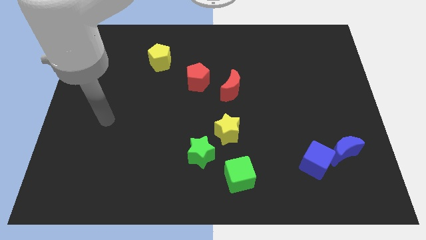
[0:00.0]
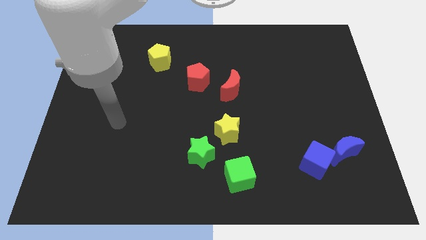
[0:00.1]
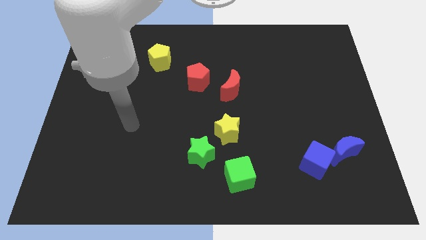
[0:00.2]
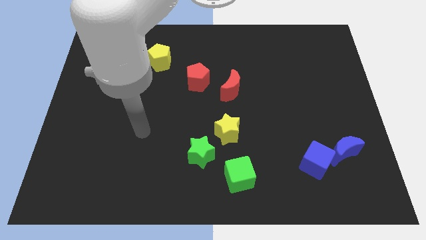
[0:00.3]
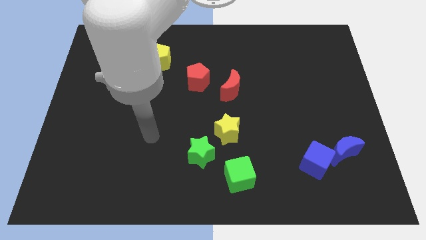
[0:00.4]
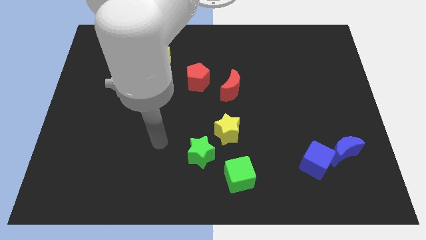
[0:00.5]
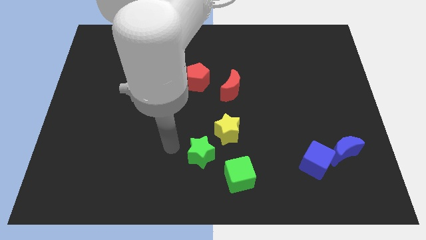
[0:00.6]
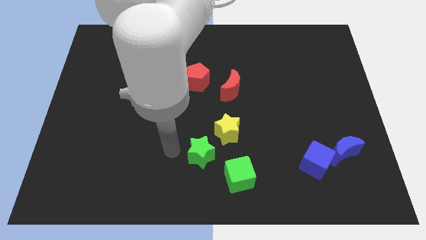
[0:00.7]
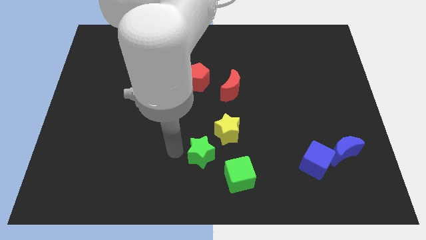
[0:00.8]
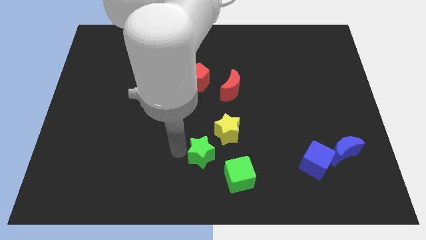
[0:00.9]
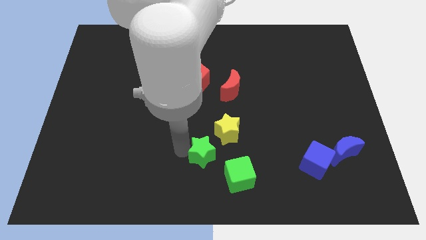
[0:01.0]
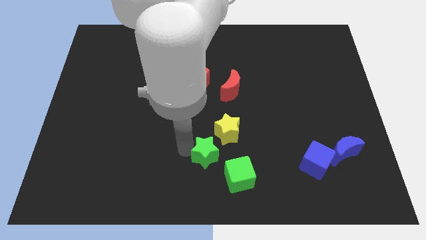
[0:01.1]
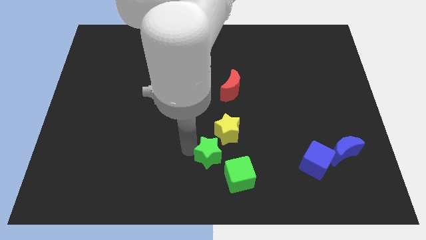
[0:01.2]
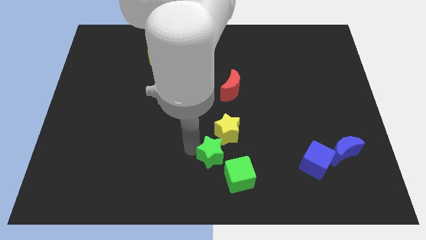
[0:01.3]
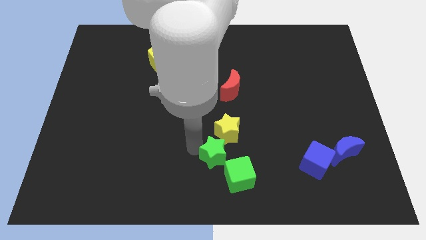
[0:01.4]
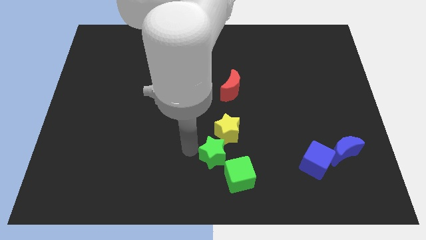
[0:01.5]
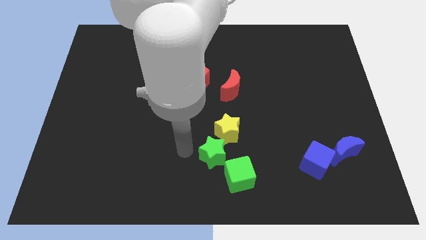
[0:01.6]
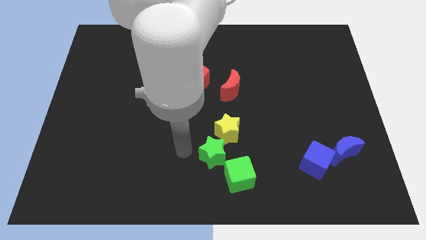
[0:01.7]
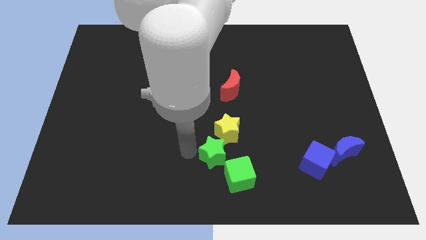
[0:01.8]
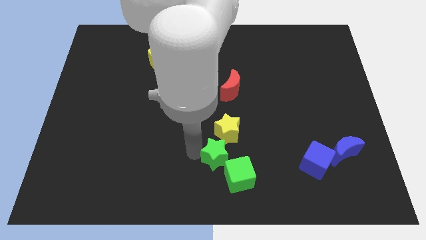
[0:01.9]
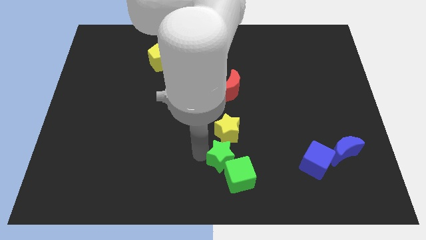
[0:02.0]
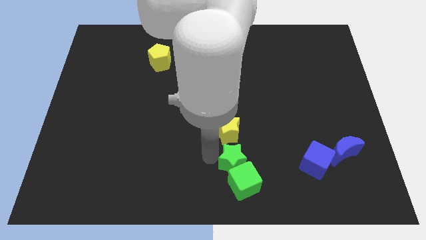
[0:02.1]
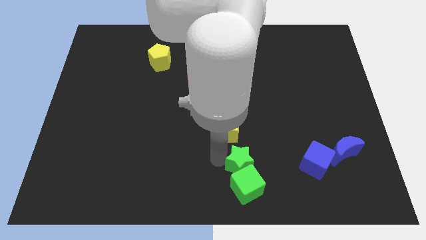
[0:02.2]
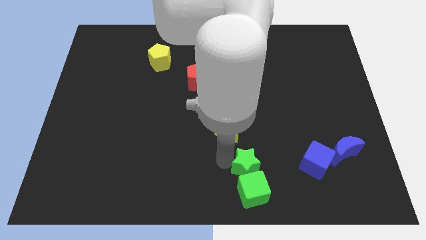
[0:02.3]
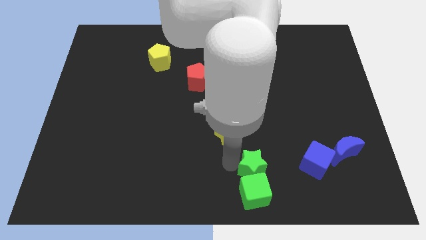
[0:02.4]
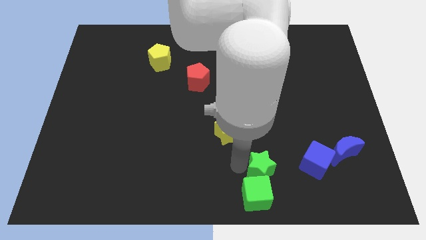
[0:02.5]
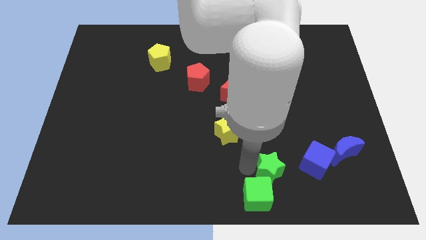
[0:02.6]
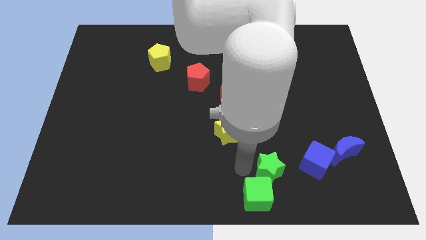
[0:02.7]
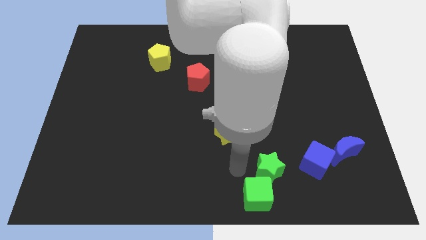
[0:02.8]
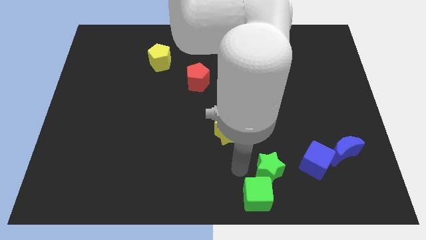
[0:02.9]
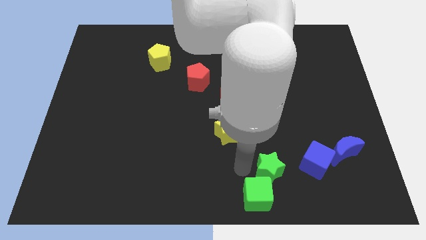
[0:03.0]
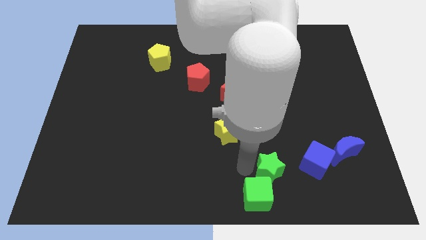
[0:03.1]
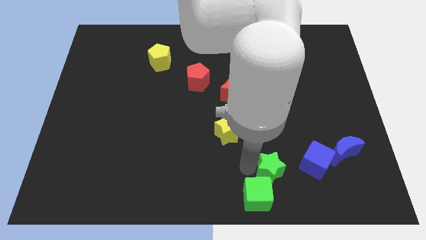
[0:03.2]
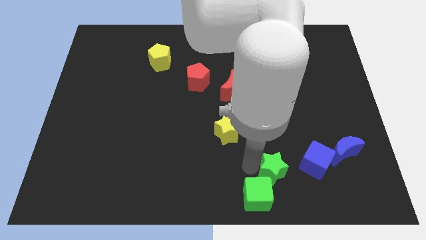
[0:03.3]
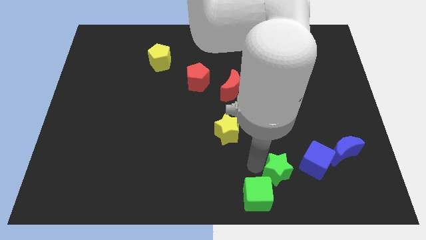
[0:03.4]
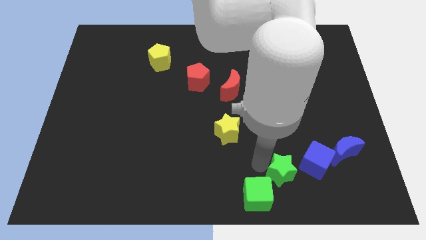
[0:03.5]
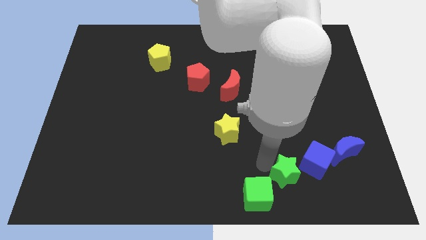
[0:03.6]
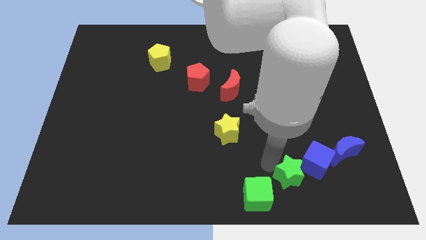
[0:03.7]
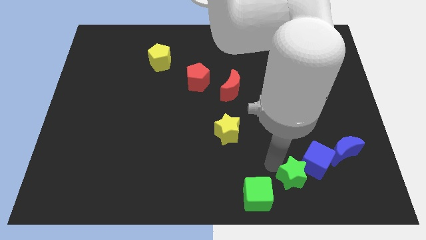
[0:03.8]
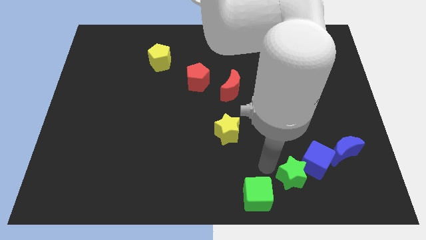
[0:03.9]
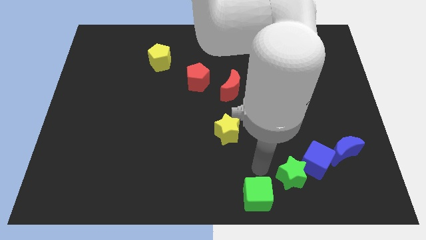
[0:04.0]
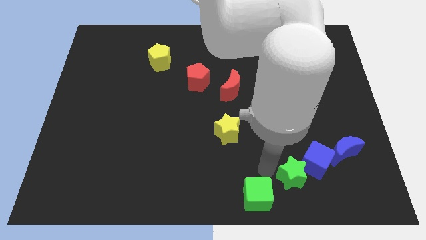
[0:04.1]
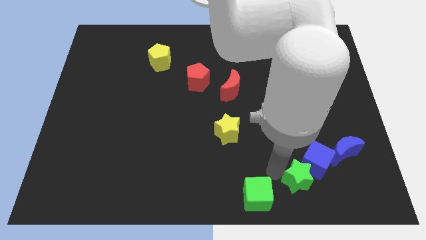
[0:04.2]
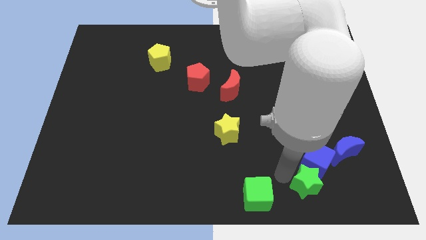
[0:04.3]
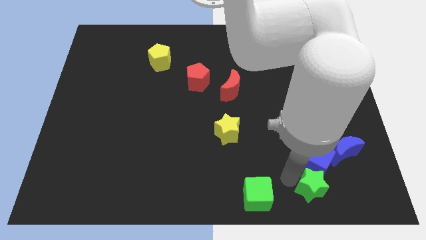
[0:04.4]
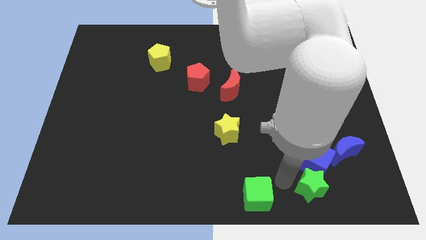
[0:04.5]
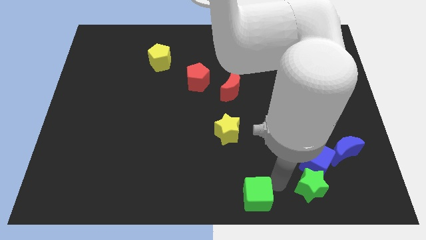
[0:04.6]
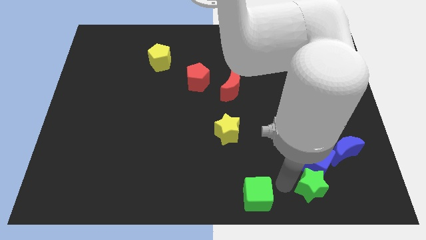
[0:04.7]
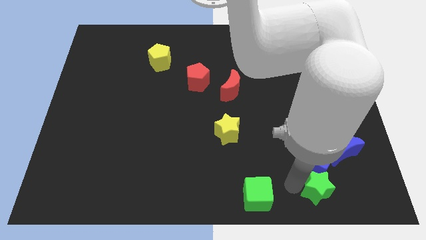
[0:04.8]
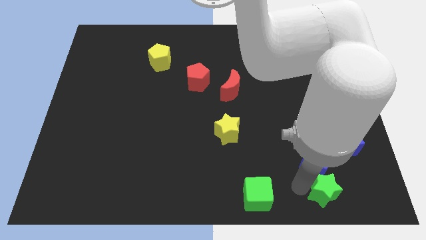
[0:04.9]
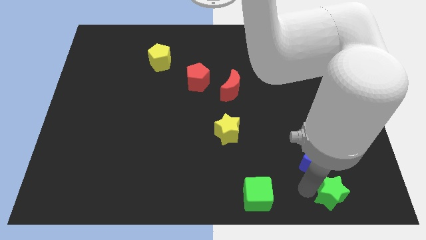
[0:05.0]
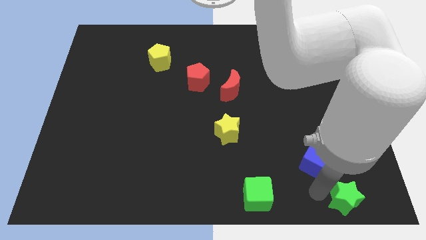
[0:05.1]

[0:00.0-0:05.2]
put the green star to the bottom right

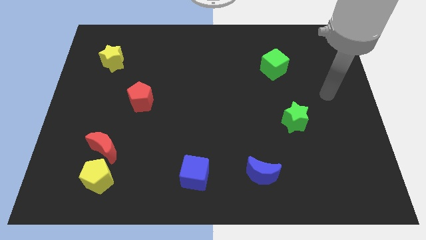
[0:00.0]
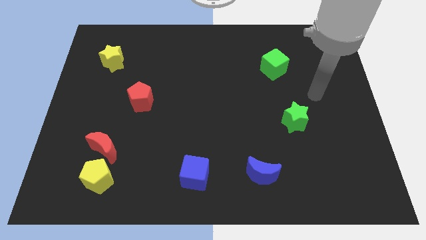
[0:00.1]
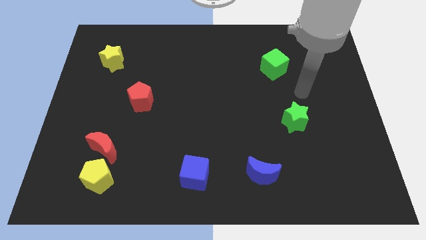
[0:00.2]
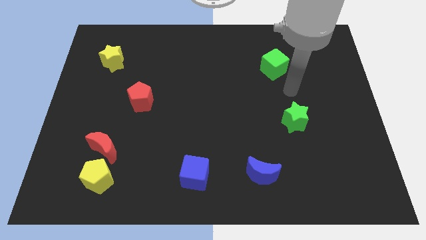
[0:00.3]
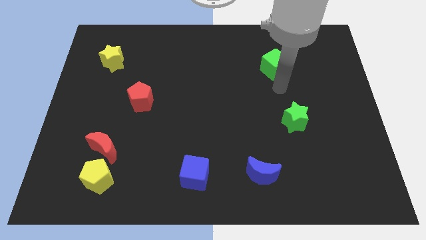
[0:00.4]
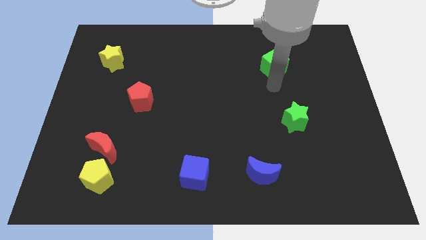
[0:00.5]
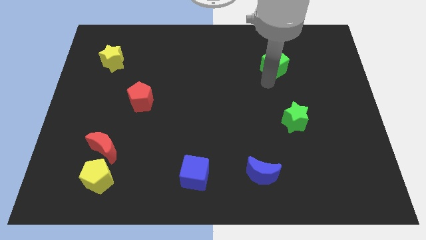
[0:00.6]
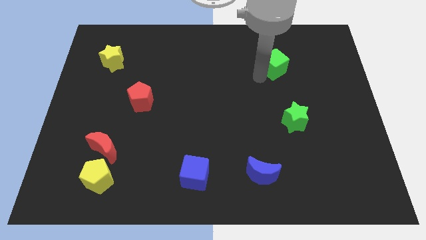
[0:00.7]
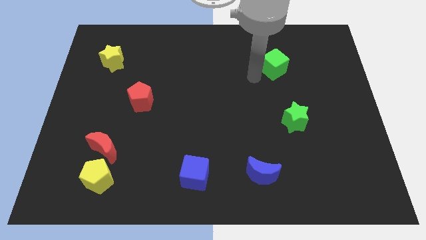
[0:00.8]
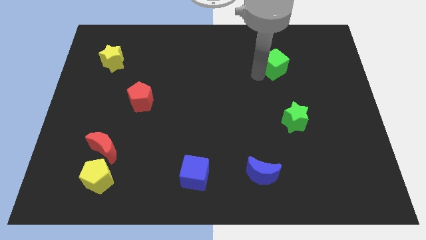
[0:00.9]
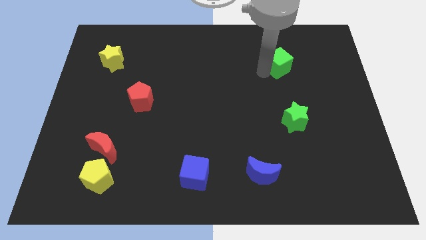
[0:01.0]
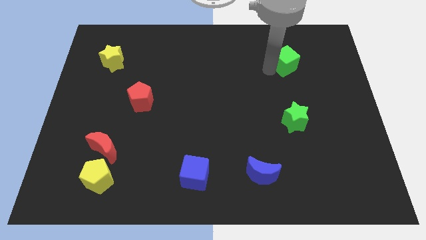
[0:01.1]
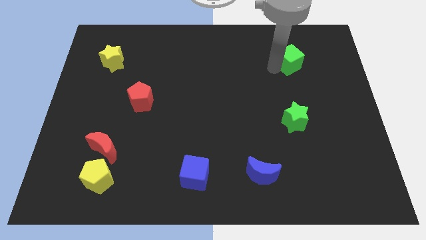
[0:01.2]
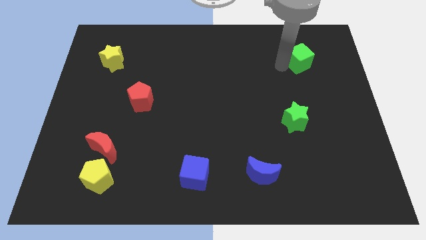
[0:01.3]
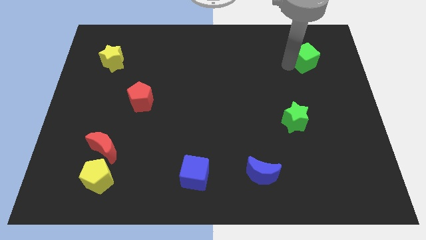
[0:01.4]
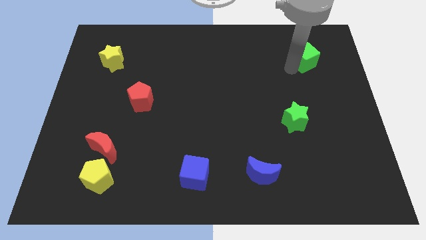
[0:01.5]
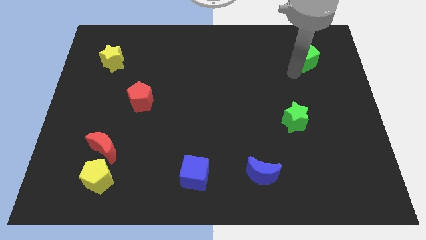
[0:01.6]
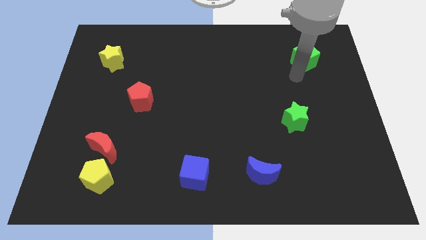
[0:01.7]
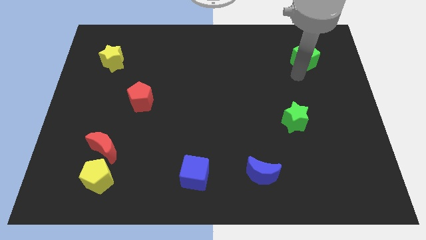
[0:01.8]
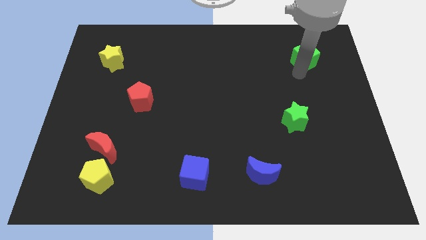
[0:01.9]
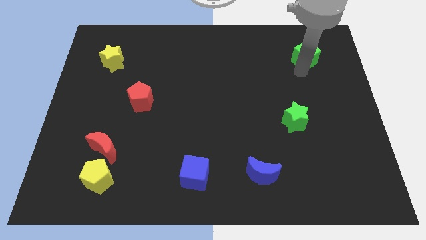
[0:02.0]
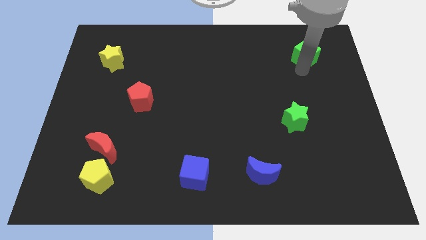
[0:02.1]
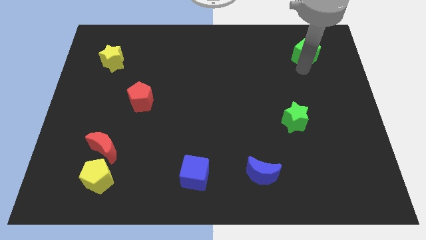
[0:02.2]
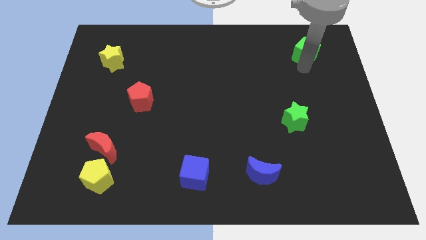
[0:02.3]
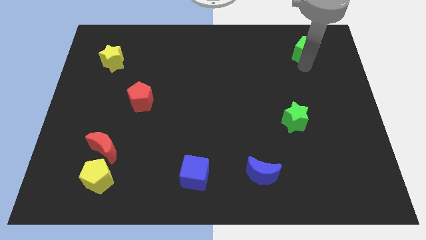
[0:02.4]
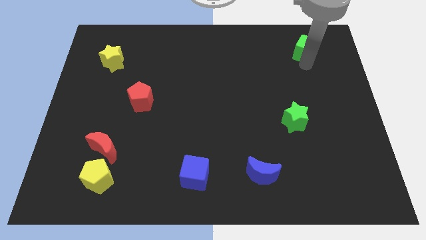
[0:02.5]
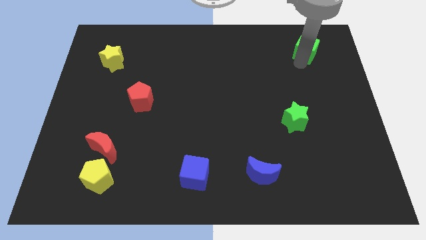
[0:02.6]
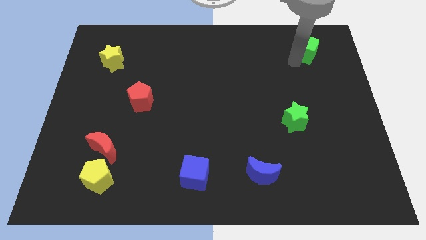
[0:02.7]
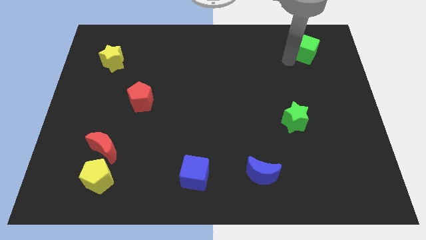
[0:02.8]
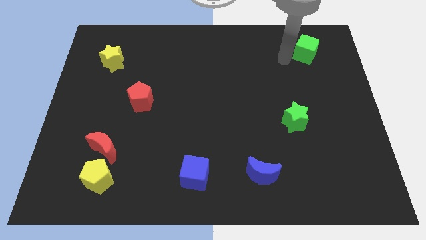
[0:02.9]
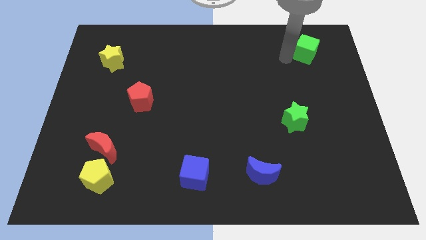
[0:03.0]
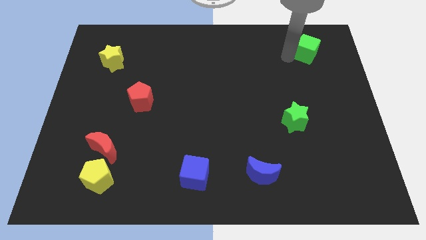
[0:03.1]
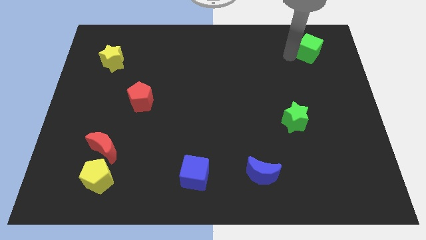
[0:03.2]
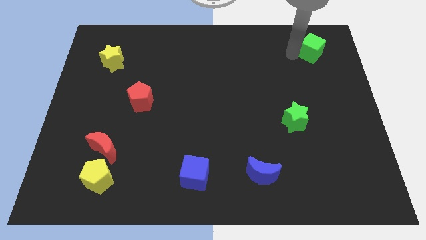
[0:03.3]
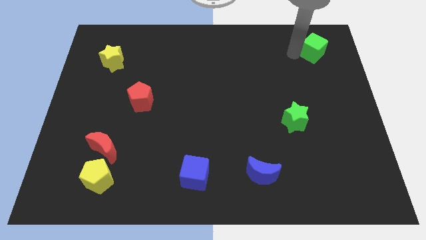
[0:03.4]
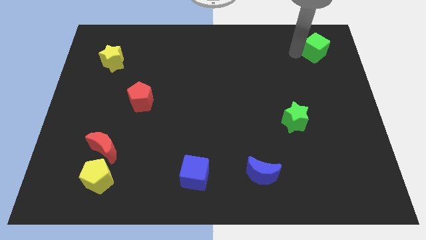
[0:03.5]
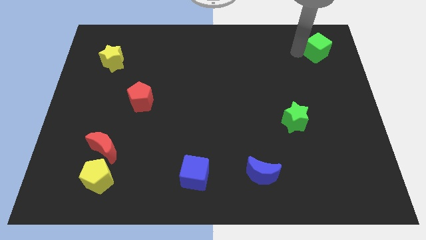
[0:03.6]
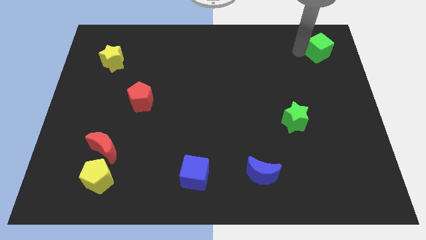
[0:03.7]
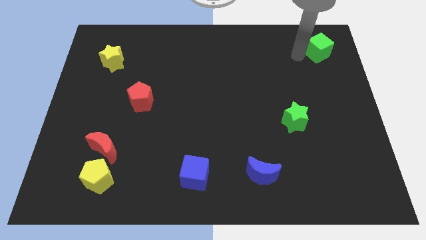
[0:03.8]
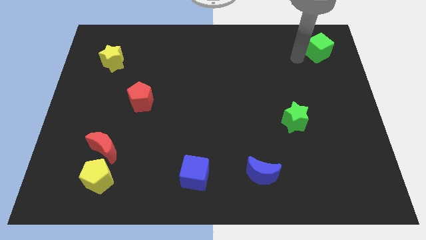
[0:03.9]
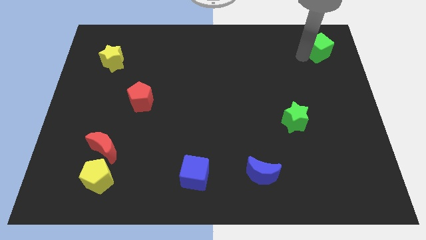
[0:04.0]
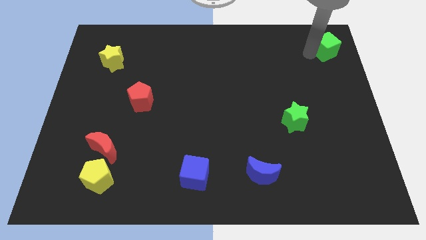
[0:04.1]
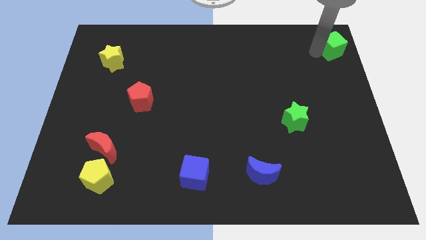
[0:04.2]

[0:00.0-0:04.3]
slide the green cube to the top right corner
